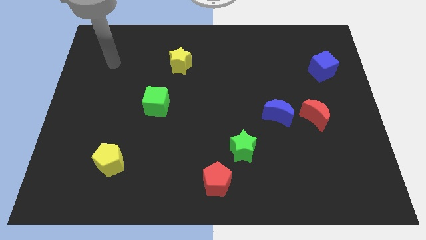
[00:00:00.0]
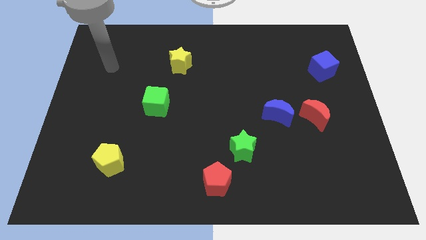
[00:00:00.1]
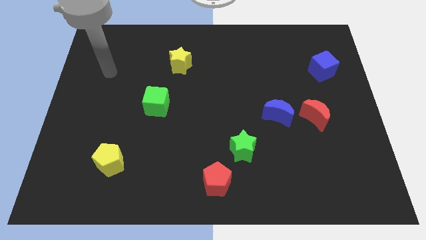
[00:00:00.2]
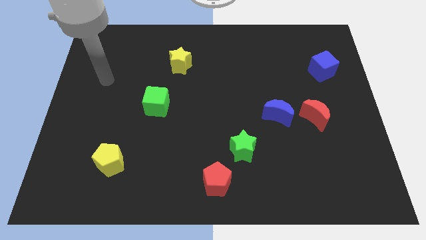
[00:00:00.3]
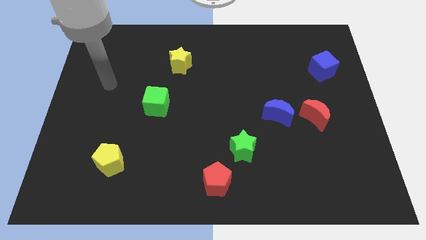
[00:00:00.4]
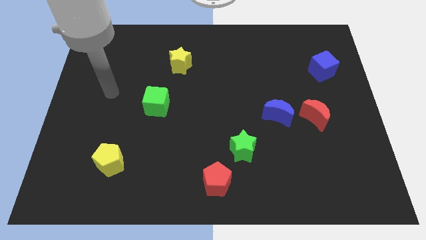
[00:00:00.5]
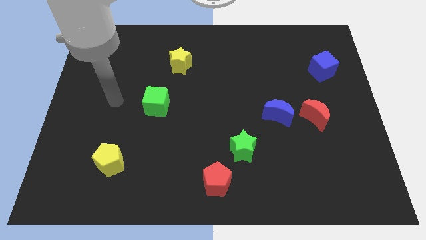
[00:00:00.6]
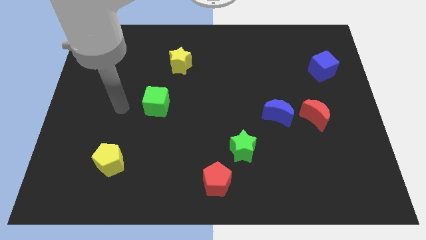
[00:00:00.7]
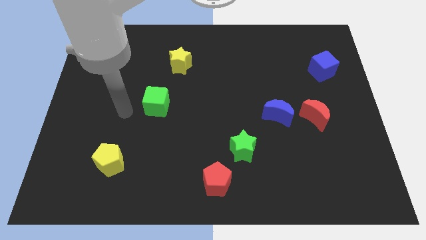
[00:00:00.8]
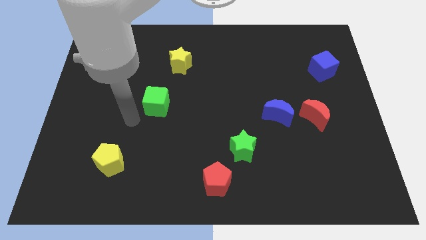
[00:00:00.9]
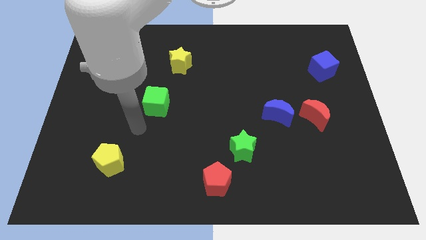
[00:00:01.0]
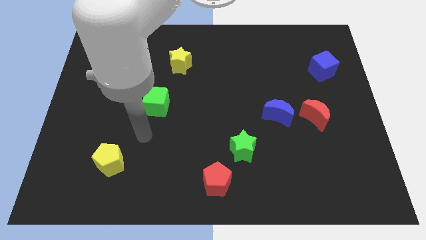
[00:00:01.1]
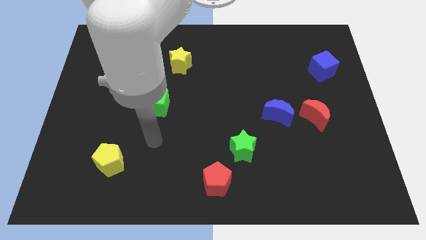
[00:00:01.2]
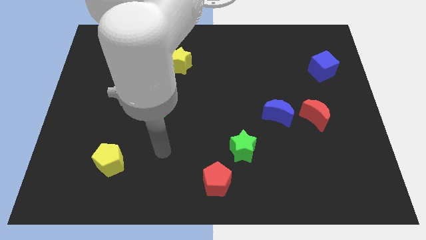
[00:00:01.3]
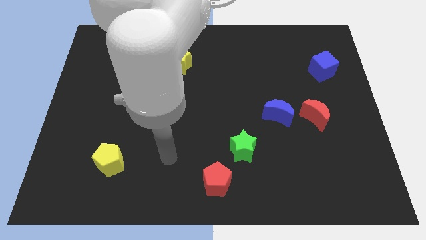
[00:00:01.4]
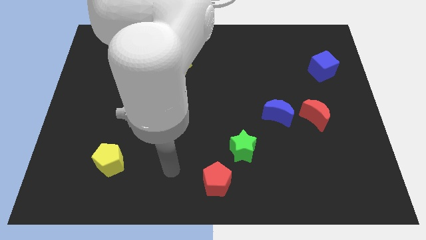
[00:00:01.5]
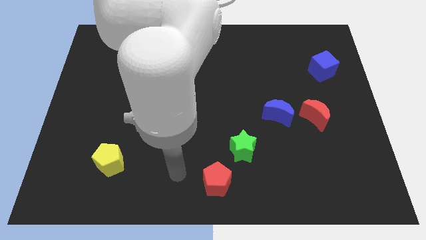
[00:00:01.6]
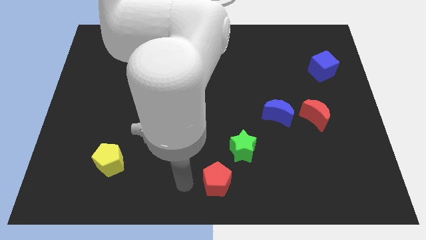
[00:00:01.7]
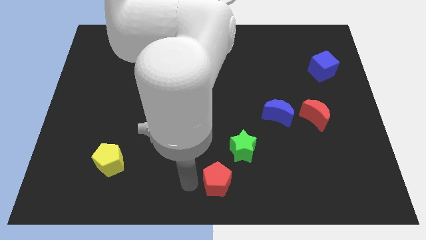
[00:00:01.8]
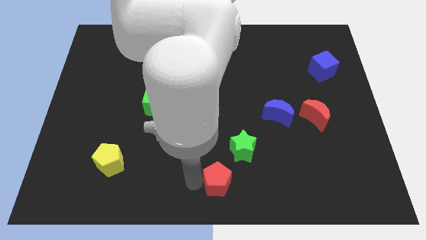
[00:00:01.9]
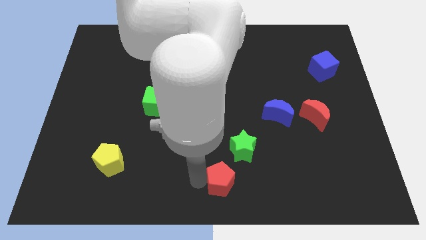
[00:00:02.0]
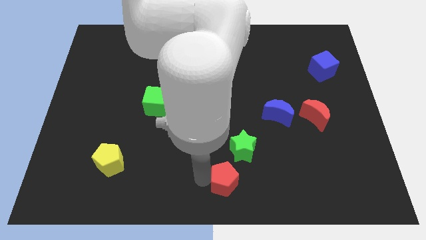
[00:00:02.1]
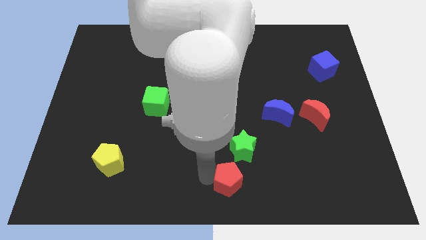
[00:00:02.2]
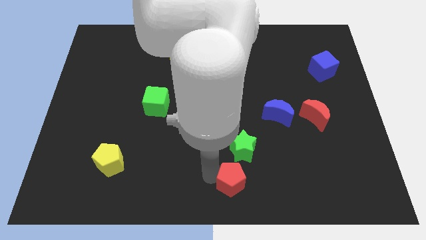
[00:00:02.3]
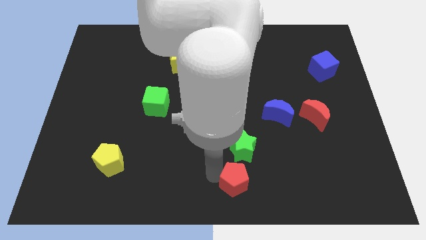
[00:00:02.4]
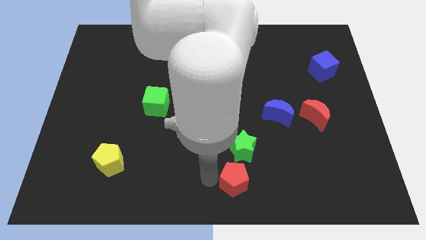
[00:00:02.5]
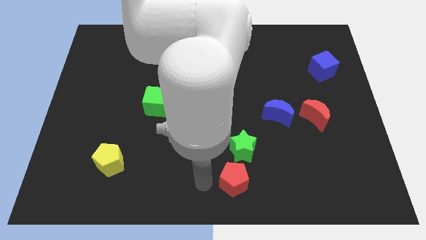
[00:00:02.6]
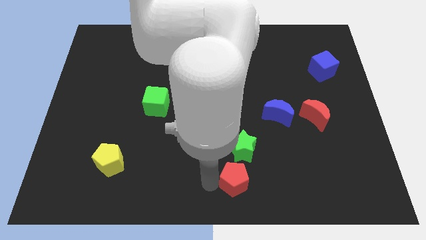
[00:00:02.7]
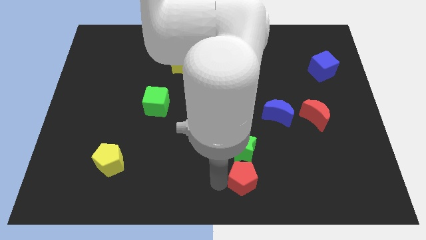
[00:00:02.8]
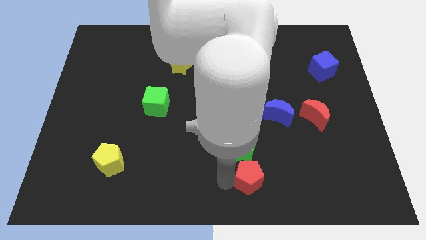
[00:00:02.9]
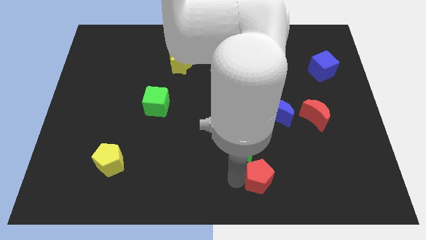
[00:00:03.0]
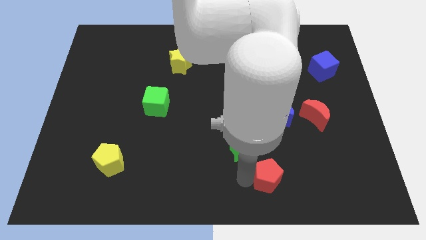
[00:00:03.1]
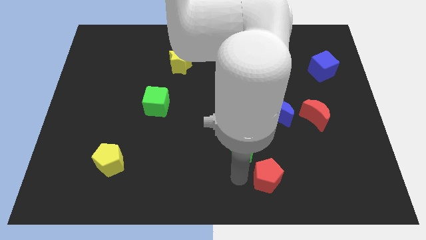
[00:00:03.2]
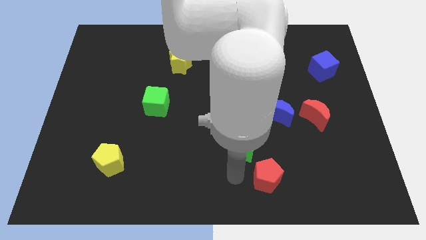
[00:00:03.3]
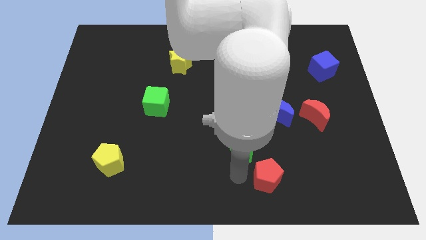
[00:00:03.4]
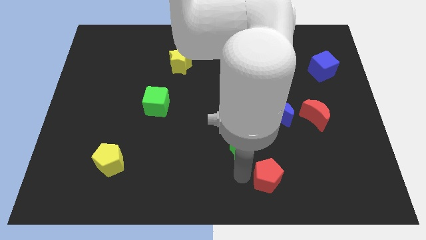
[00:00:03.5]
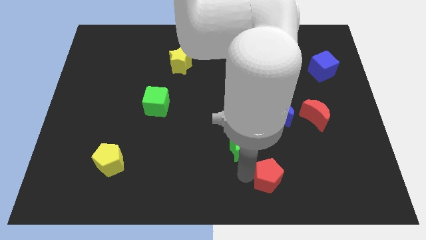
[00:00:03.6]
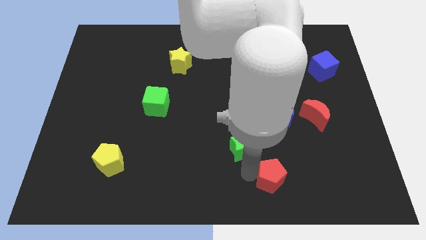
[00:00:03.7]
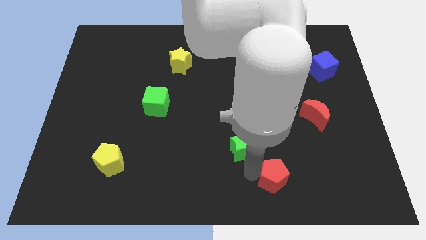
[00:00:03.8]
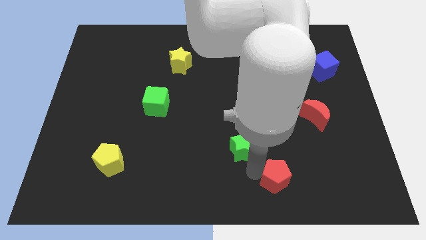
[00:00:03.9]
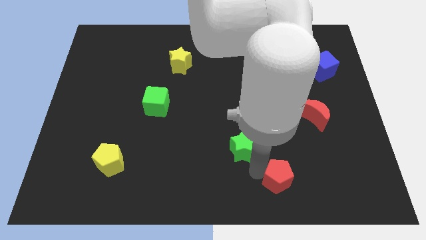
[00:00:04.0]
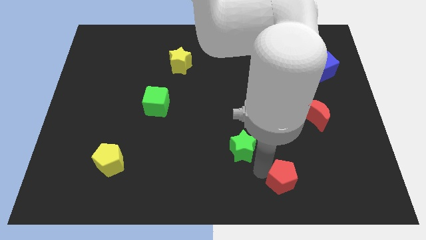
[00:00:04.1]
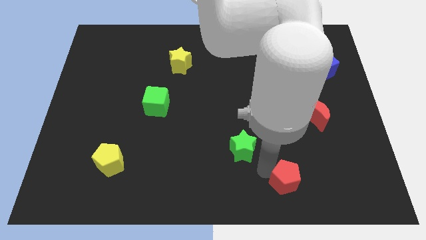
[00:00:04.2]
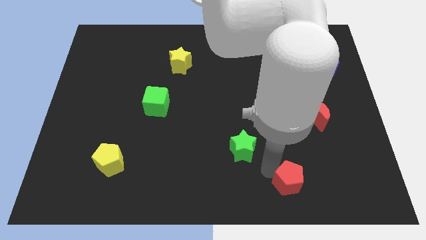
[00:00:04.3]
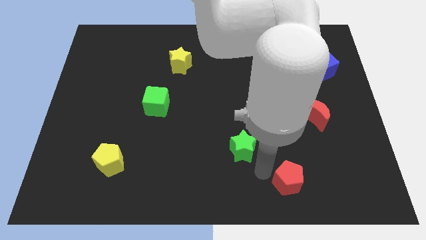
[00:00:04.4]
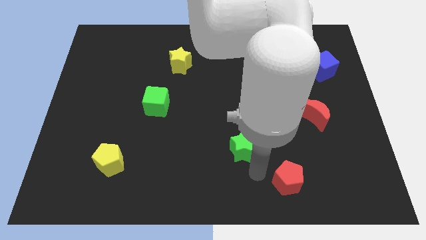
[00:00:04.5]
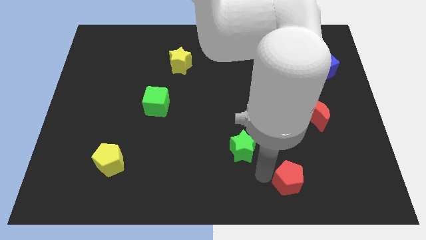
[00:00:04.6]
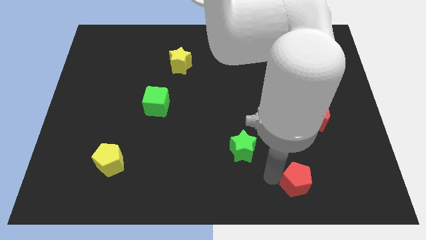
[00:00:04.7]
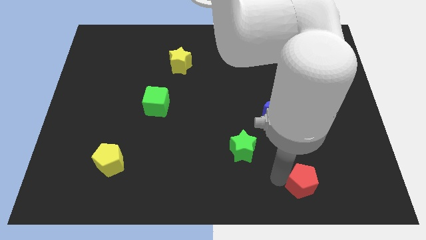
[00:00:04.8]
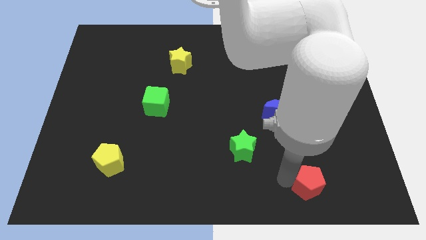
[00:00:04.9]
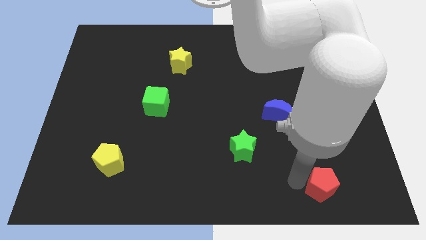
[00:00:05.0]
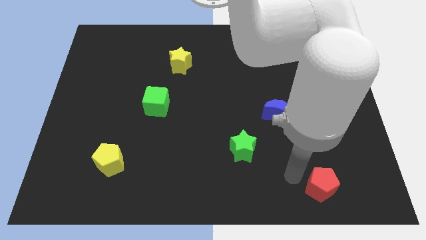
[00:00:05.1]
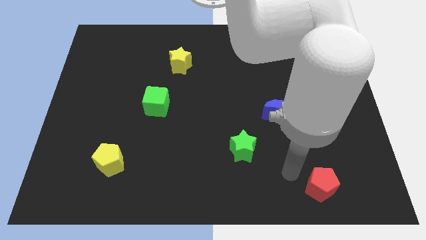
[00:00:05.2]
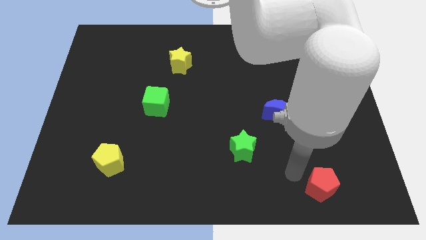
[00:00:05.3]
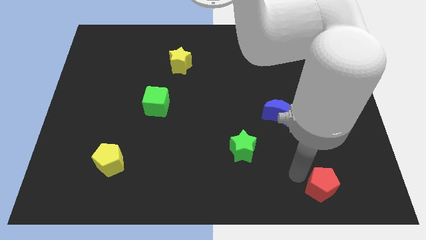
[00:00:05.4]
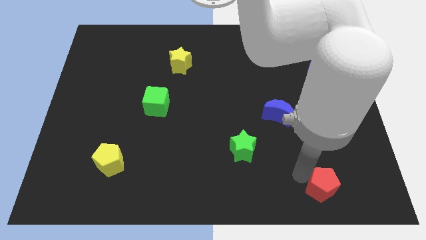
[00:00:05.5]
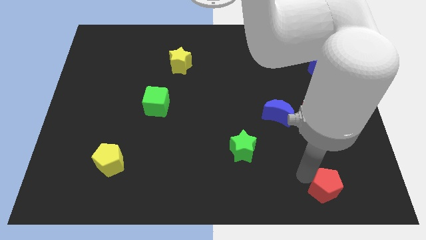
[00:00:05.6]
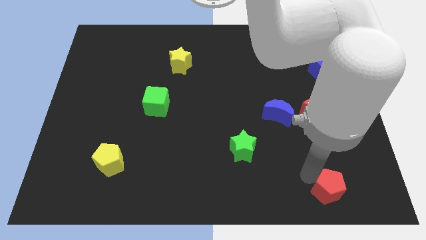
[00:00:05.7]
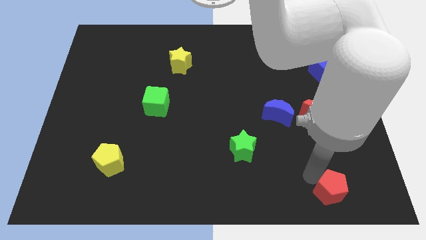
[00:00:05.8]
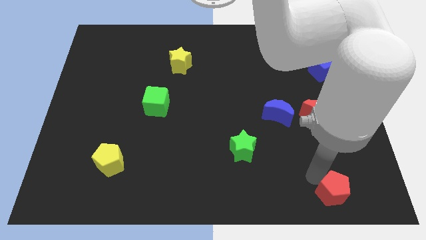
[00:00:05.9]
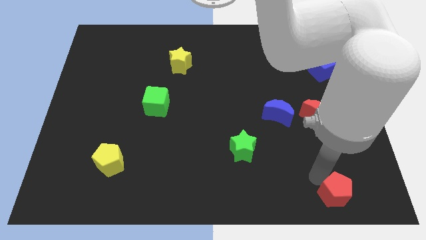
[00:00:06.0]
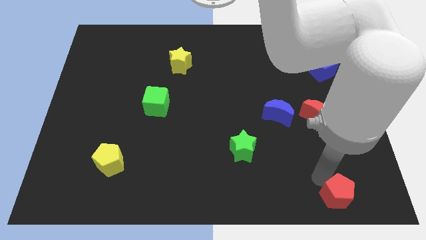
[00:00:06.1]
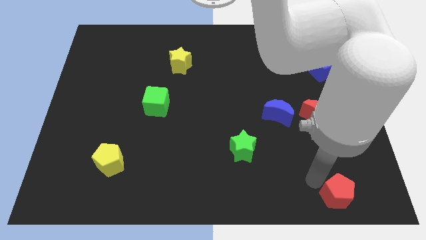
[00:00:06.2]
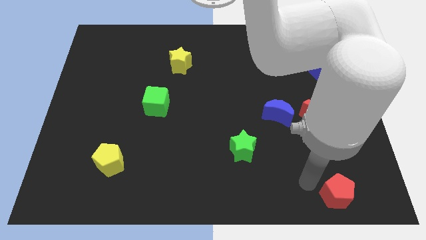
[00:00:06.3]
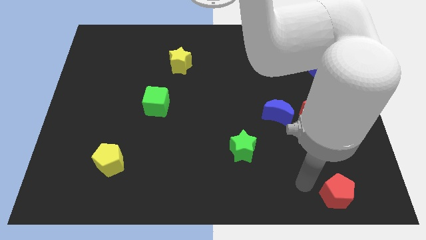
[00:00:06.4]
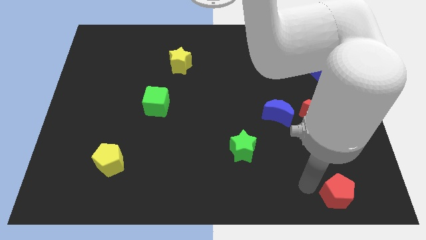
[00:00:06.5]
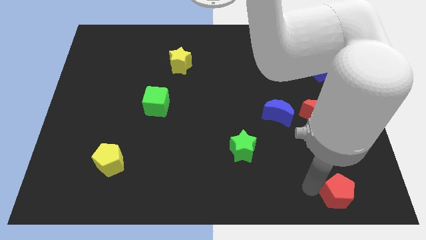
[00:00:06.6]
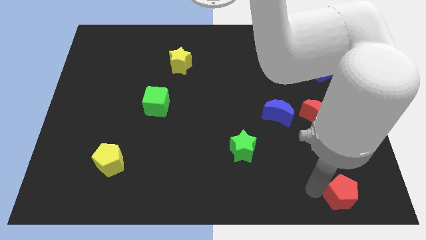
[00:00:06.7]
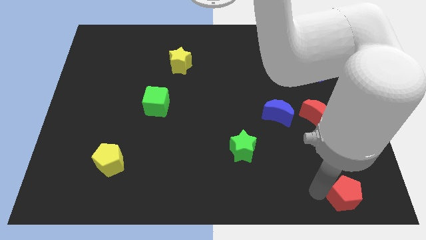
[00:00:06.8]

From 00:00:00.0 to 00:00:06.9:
slide the red pentagon to the bottom right of the board

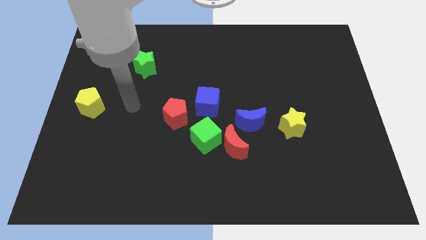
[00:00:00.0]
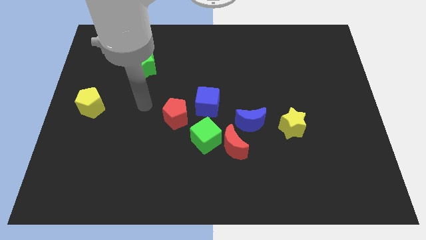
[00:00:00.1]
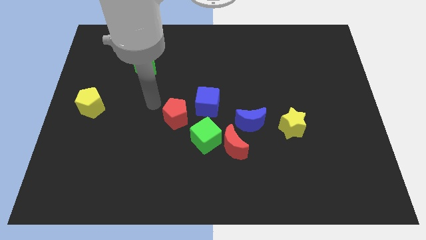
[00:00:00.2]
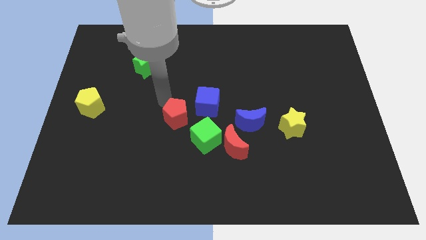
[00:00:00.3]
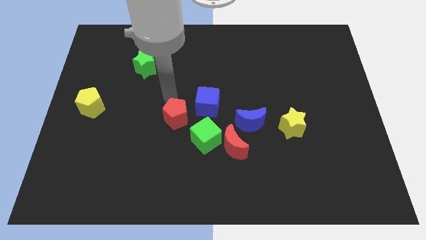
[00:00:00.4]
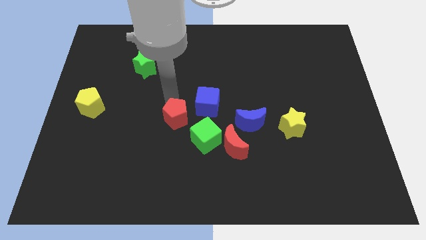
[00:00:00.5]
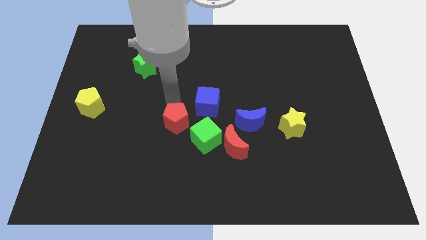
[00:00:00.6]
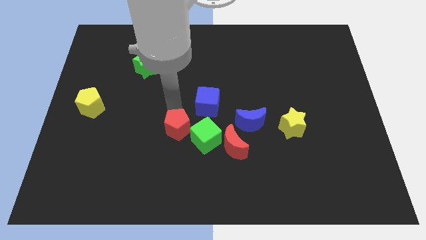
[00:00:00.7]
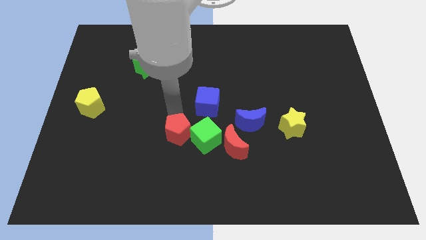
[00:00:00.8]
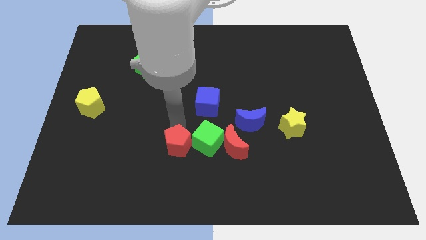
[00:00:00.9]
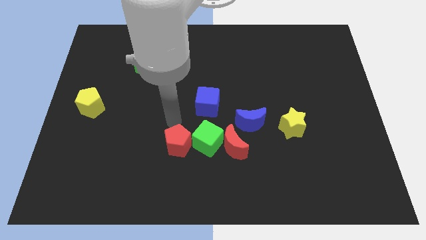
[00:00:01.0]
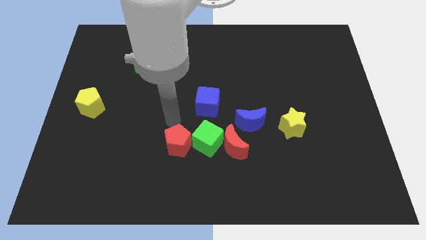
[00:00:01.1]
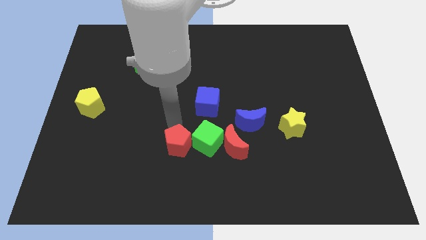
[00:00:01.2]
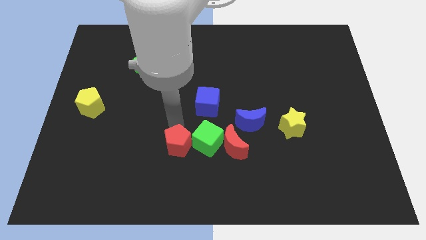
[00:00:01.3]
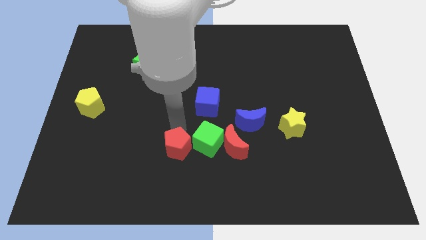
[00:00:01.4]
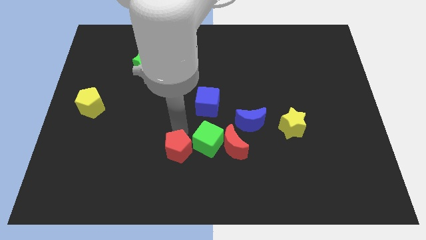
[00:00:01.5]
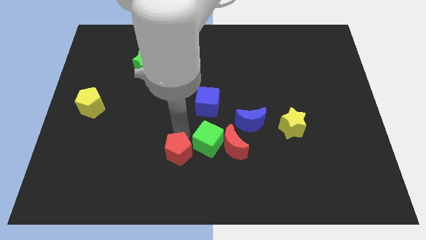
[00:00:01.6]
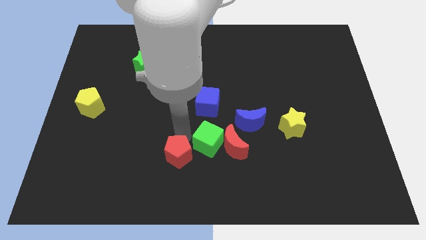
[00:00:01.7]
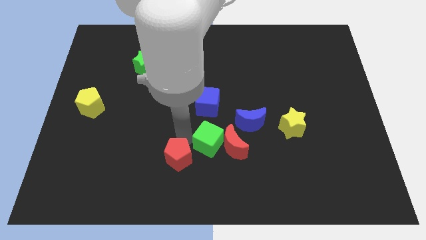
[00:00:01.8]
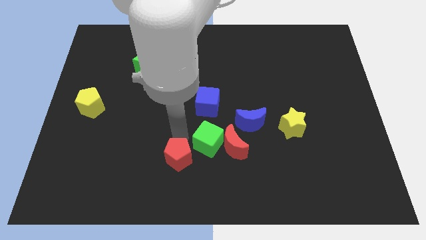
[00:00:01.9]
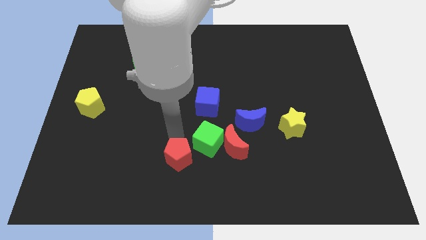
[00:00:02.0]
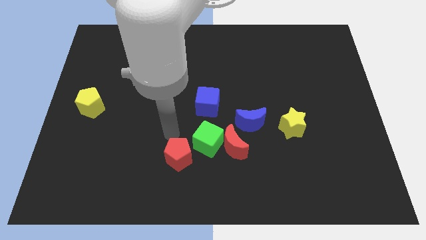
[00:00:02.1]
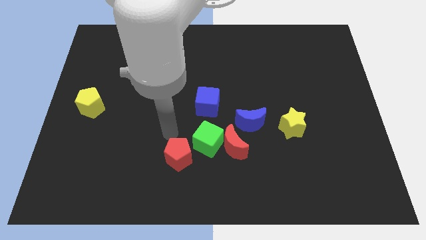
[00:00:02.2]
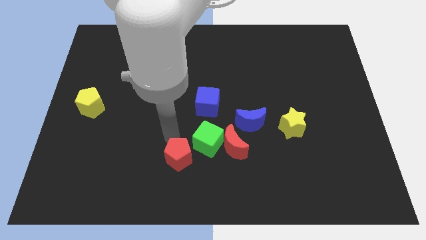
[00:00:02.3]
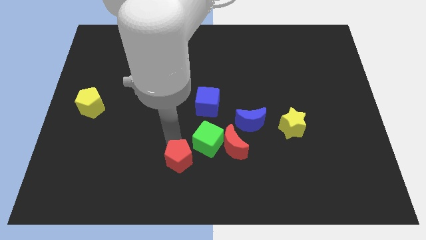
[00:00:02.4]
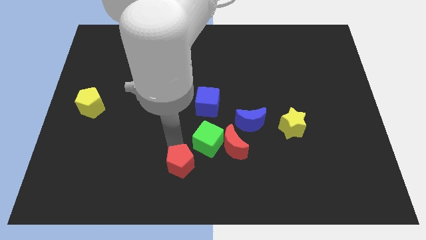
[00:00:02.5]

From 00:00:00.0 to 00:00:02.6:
push the red pentagon to the bottom
